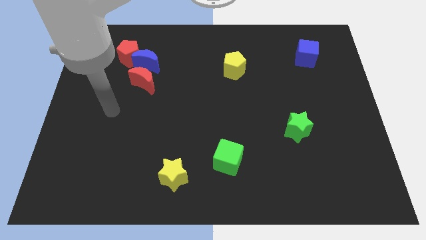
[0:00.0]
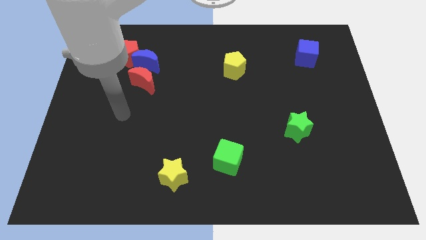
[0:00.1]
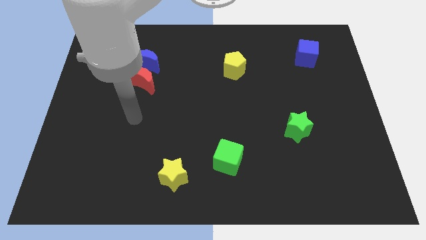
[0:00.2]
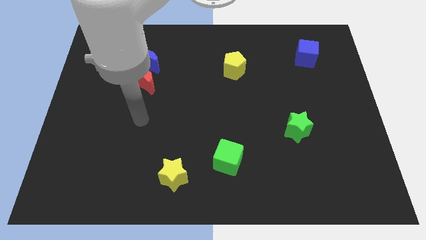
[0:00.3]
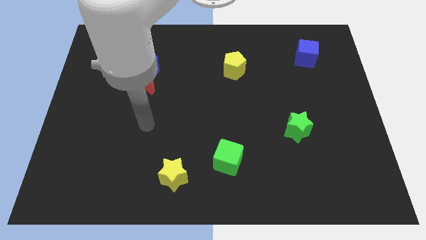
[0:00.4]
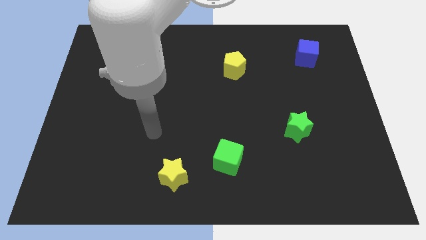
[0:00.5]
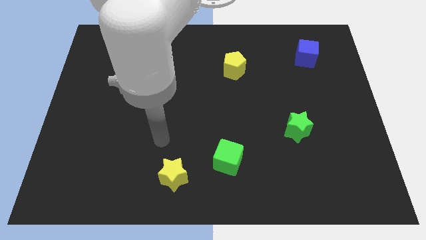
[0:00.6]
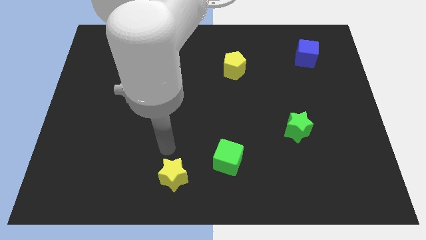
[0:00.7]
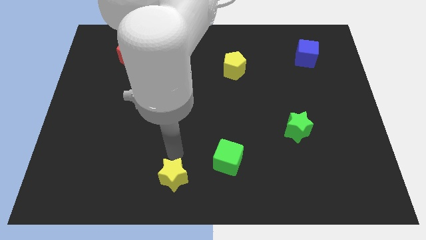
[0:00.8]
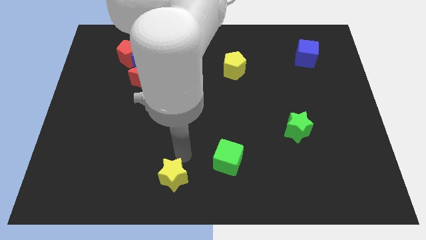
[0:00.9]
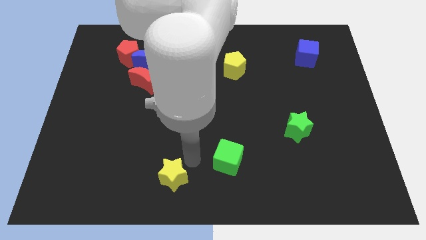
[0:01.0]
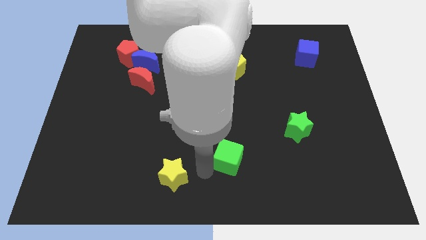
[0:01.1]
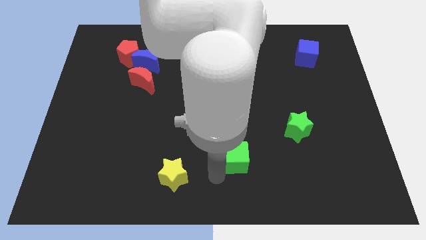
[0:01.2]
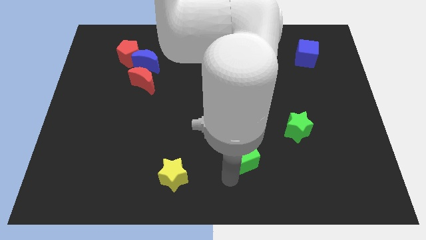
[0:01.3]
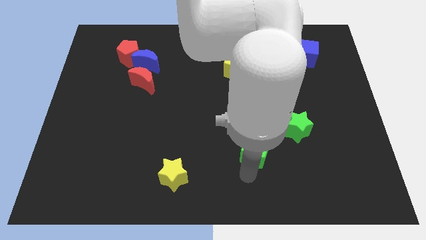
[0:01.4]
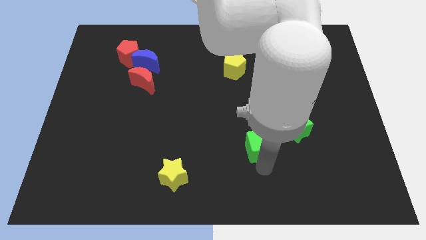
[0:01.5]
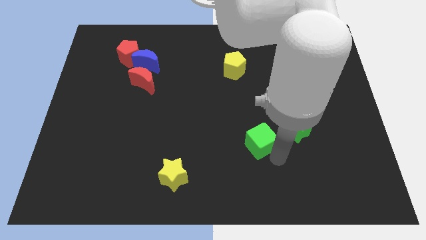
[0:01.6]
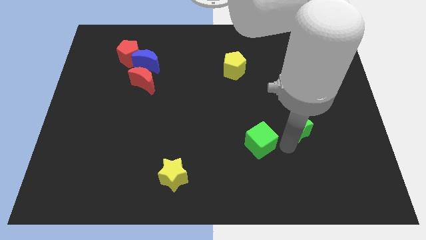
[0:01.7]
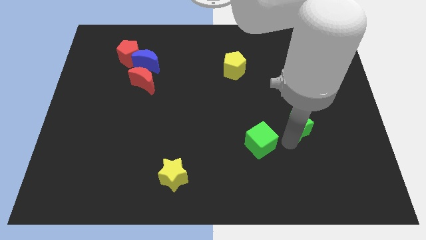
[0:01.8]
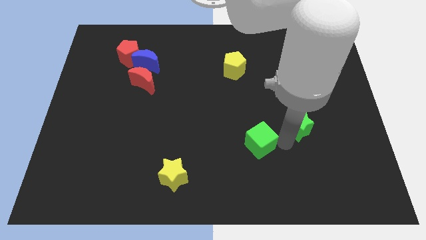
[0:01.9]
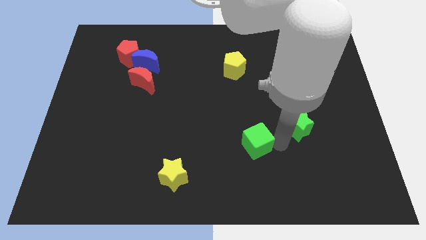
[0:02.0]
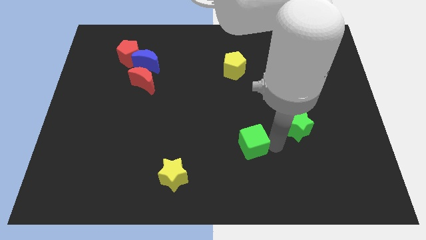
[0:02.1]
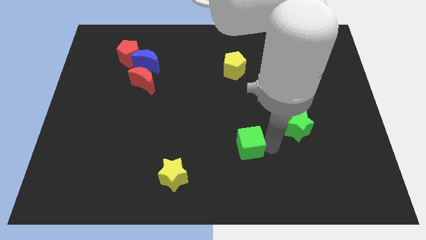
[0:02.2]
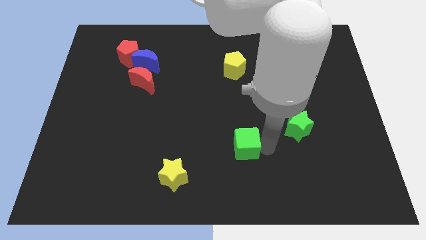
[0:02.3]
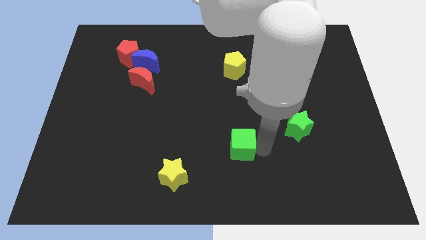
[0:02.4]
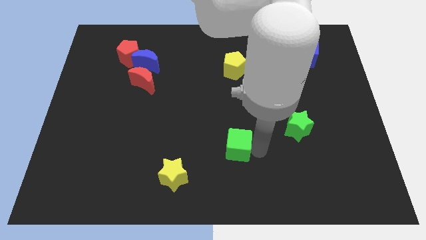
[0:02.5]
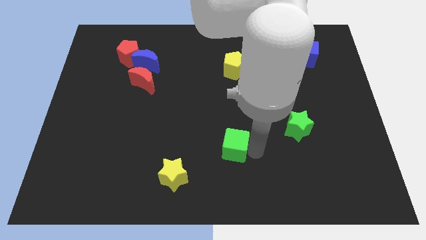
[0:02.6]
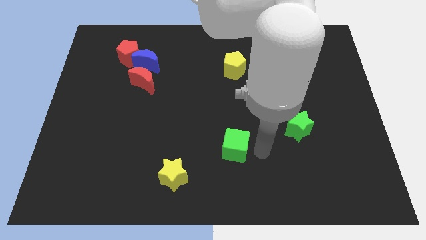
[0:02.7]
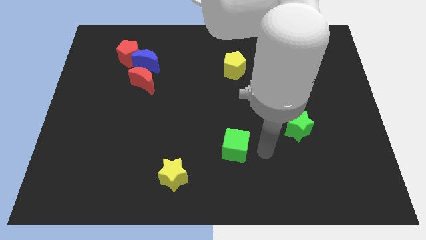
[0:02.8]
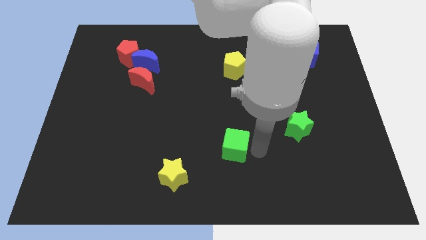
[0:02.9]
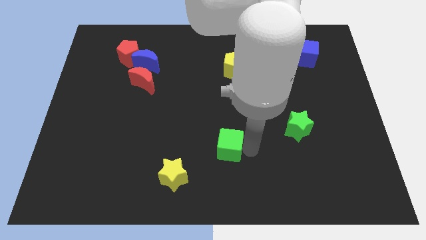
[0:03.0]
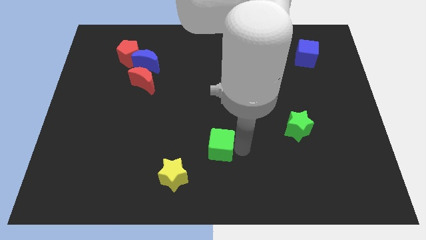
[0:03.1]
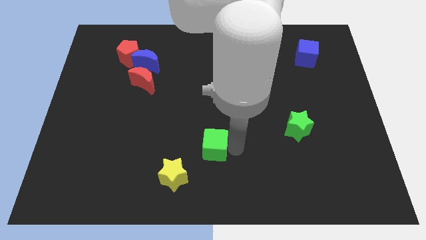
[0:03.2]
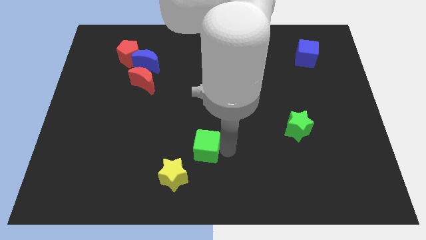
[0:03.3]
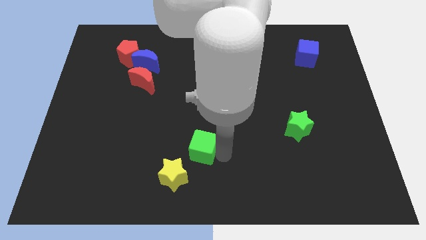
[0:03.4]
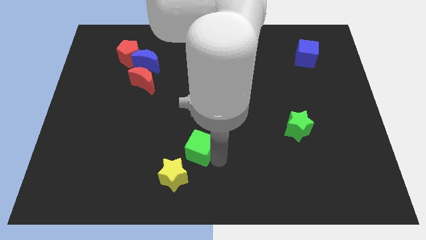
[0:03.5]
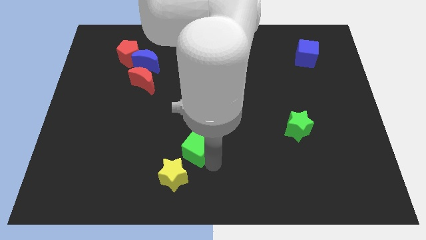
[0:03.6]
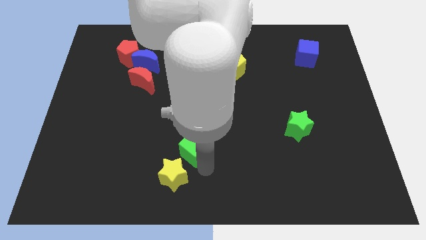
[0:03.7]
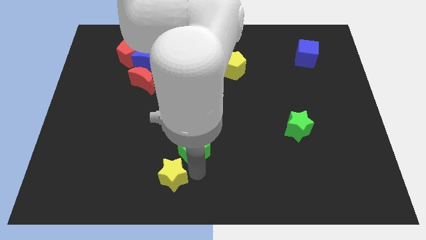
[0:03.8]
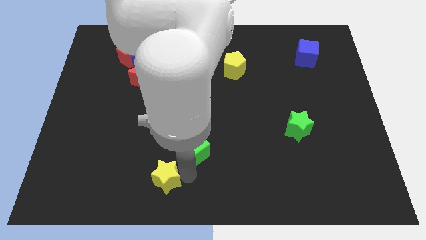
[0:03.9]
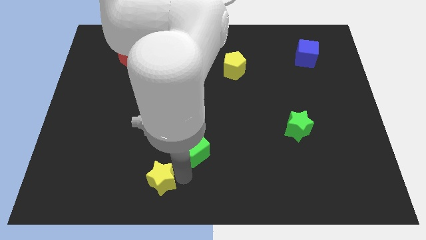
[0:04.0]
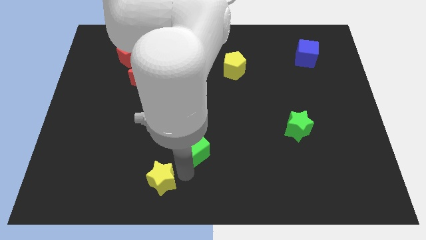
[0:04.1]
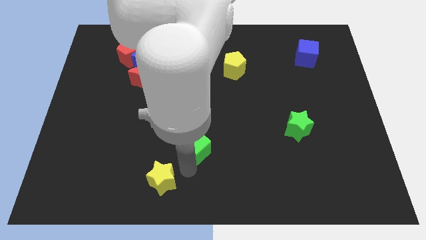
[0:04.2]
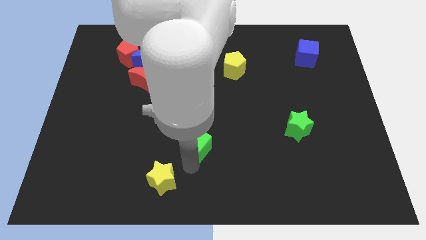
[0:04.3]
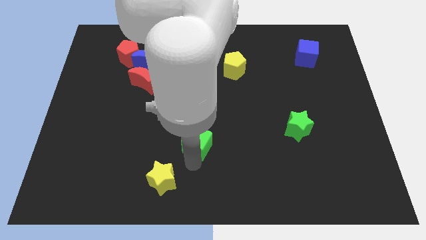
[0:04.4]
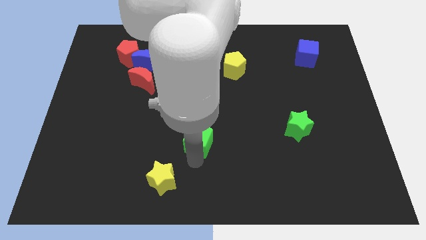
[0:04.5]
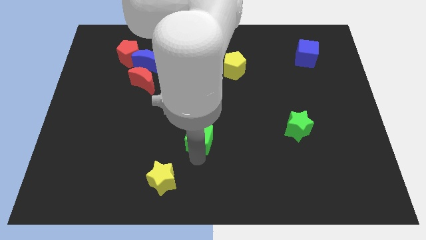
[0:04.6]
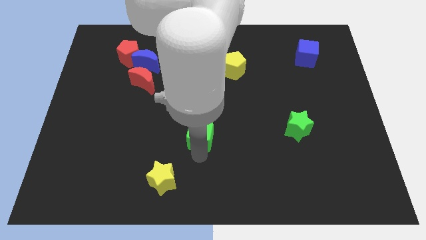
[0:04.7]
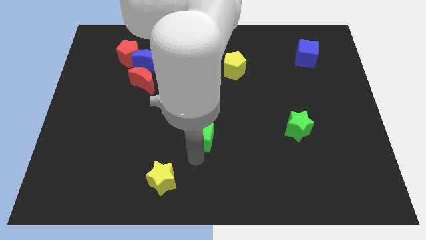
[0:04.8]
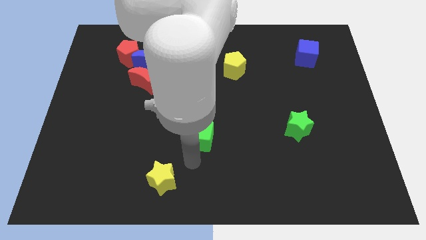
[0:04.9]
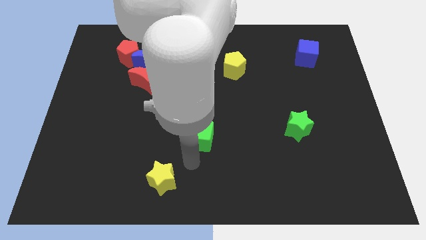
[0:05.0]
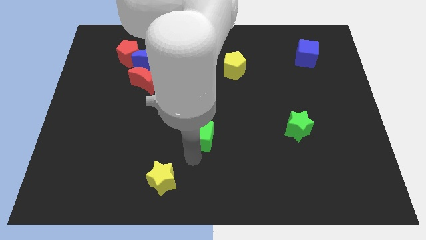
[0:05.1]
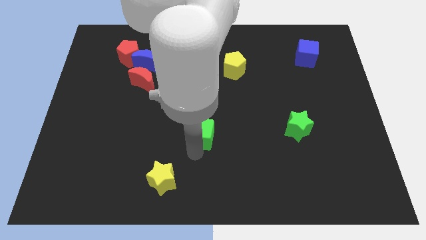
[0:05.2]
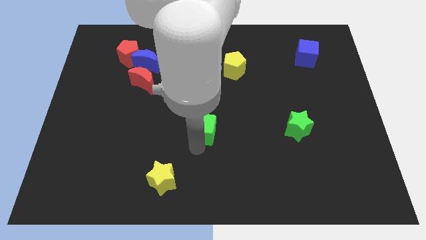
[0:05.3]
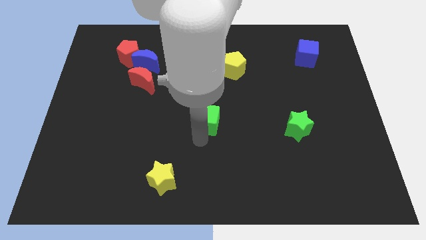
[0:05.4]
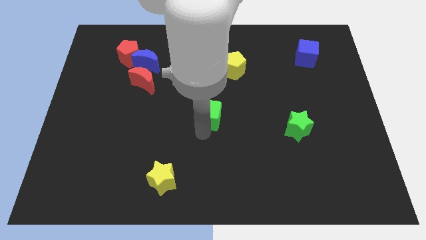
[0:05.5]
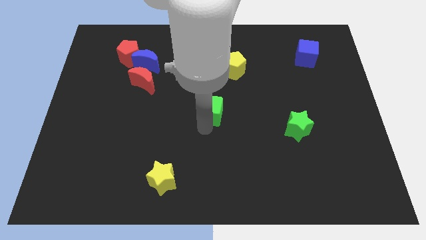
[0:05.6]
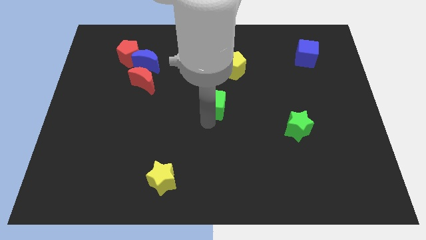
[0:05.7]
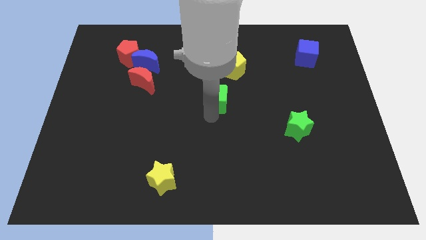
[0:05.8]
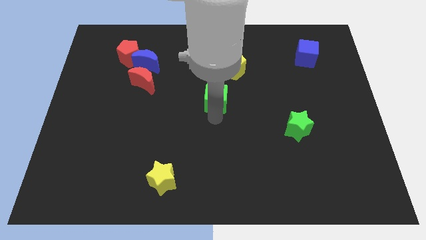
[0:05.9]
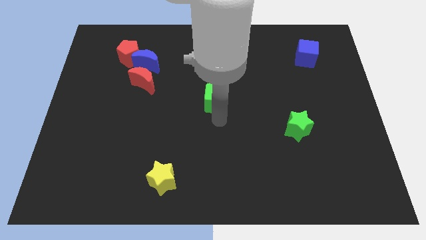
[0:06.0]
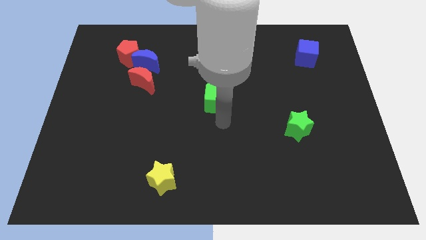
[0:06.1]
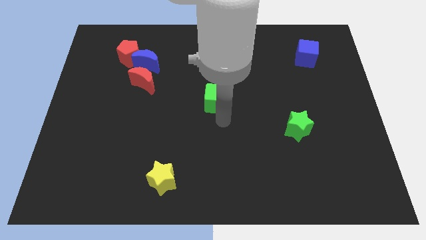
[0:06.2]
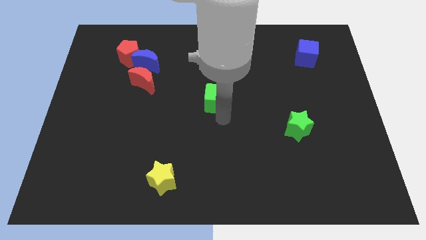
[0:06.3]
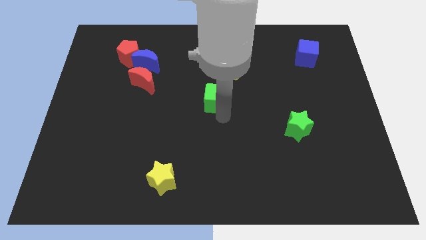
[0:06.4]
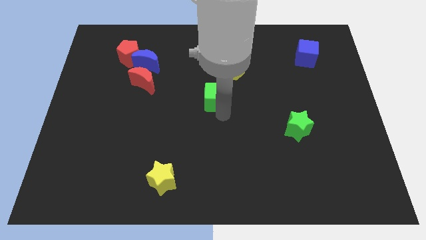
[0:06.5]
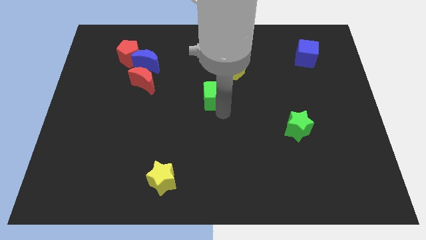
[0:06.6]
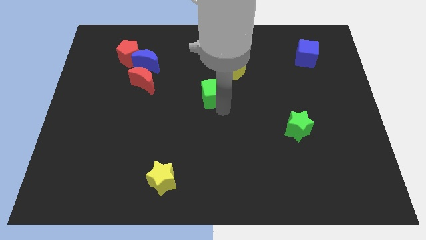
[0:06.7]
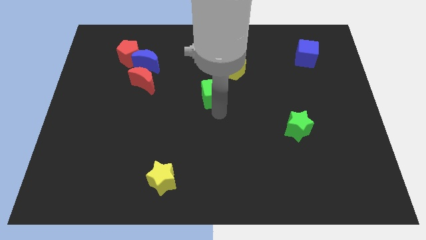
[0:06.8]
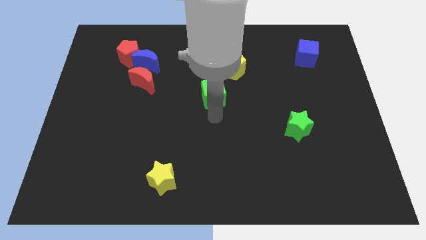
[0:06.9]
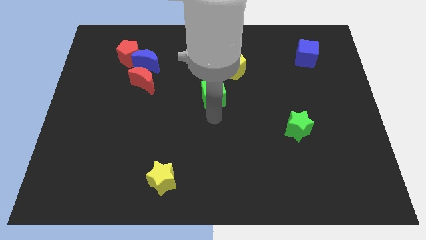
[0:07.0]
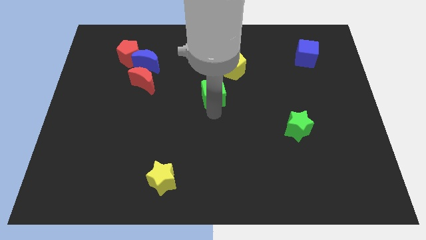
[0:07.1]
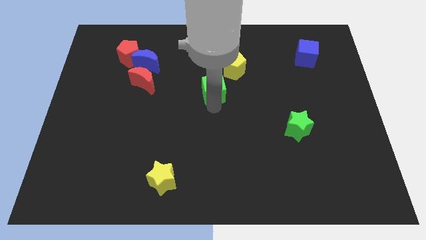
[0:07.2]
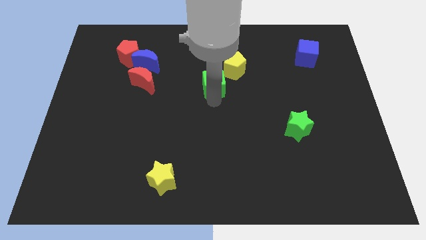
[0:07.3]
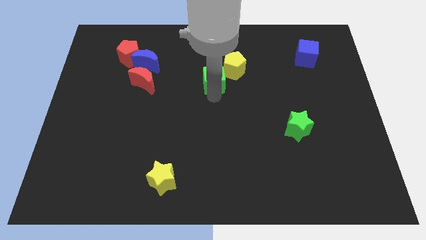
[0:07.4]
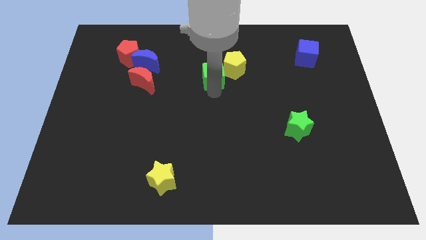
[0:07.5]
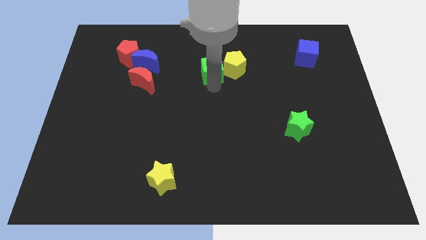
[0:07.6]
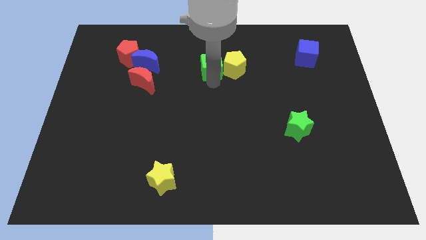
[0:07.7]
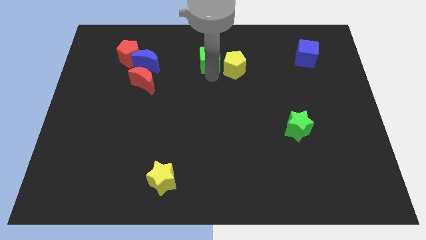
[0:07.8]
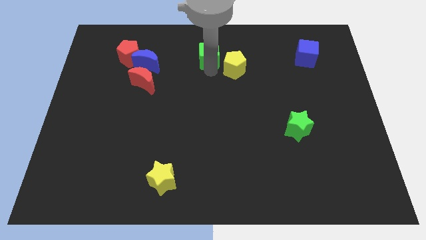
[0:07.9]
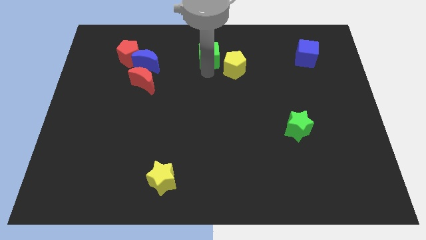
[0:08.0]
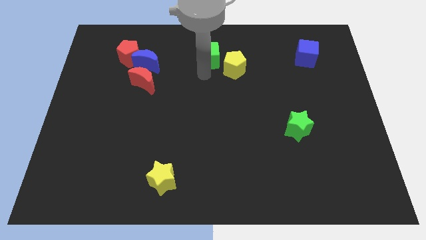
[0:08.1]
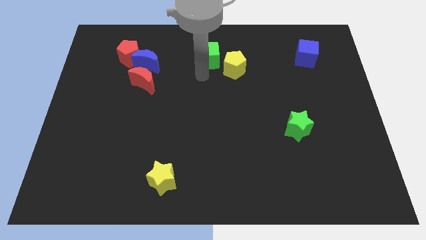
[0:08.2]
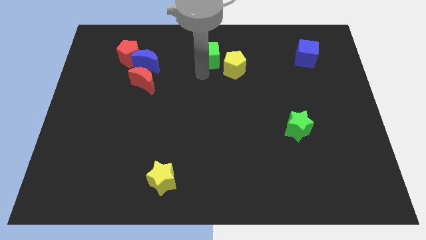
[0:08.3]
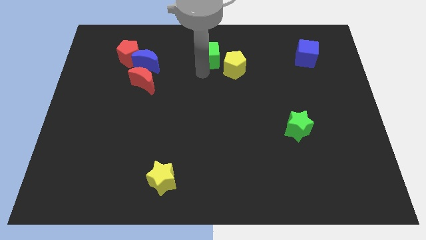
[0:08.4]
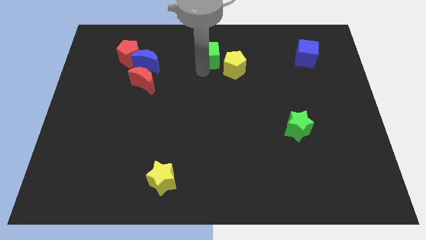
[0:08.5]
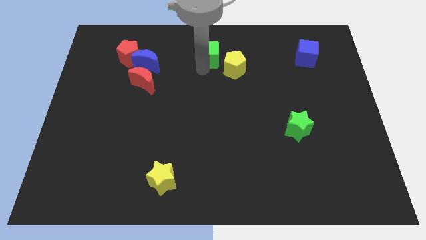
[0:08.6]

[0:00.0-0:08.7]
put the green cube to the top
